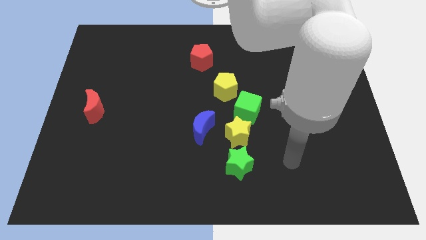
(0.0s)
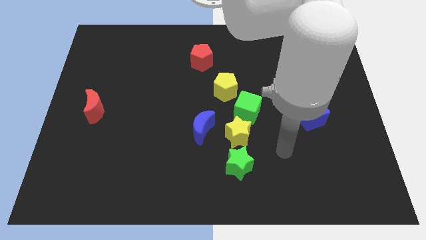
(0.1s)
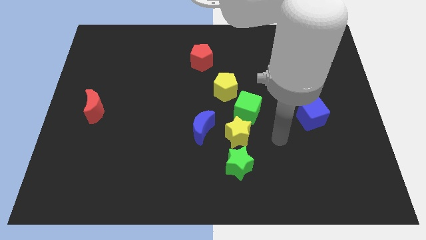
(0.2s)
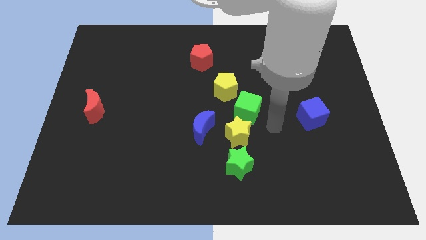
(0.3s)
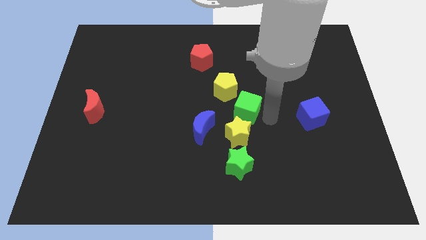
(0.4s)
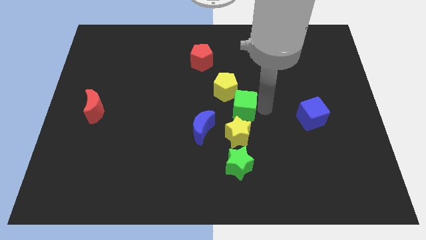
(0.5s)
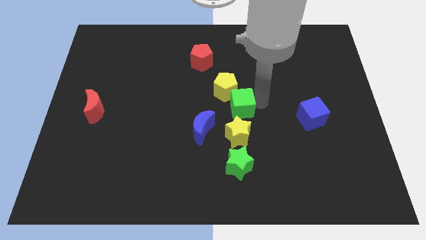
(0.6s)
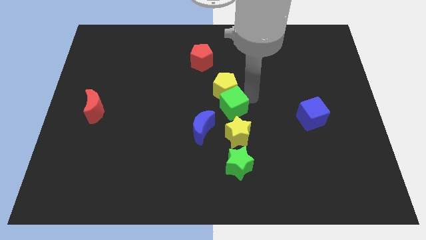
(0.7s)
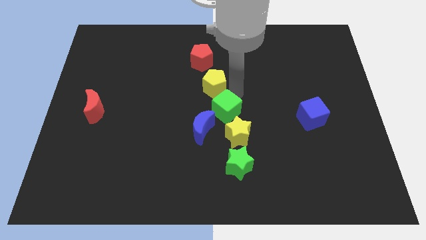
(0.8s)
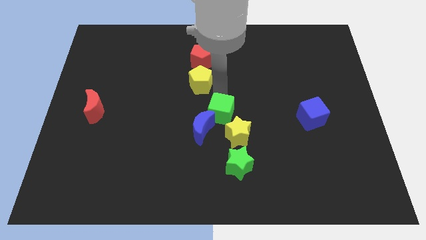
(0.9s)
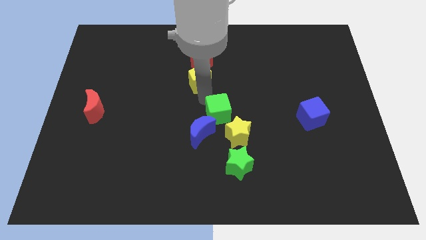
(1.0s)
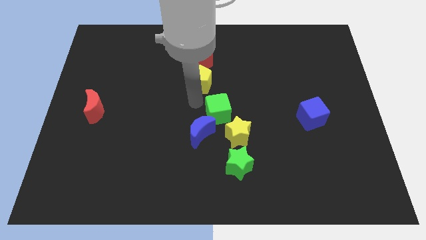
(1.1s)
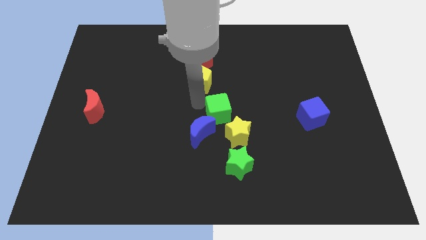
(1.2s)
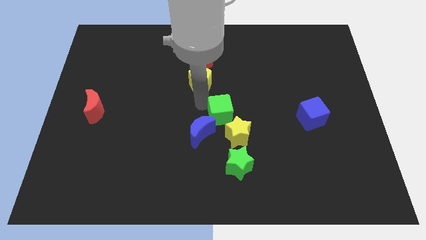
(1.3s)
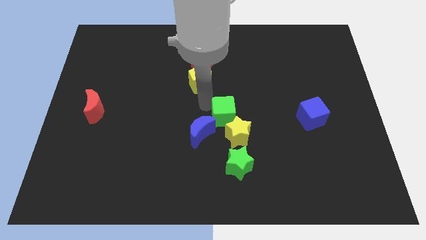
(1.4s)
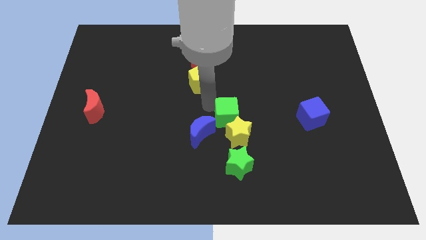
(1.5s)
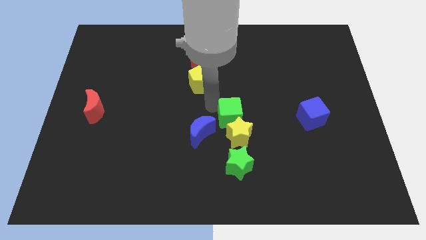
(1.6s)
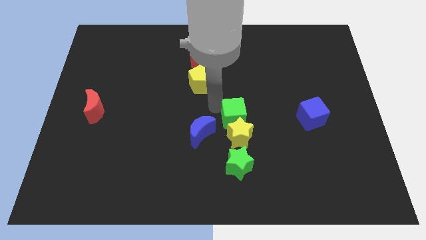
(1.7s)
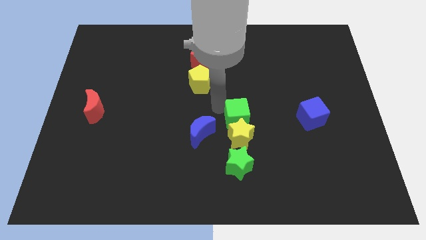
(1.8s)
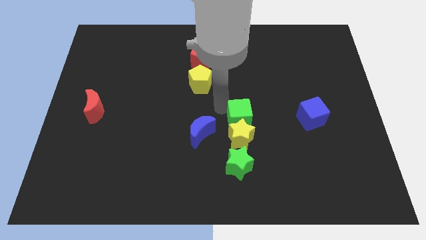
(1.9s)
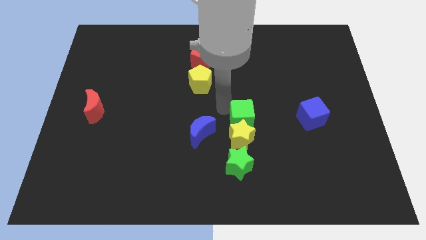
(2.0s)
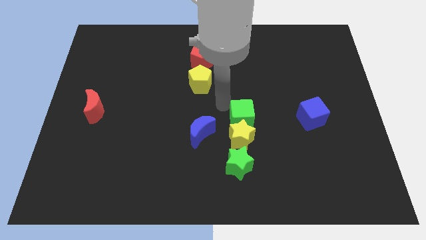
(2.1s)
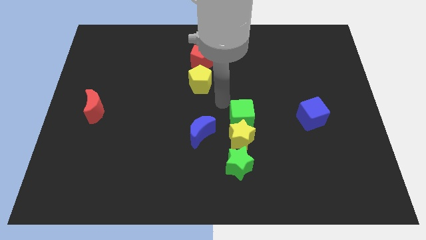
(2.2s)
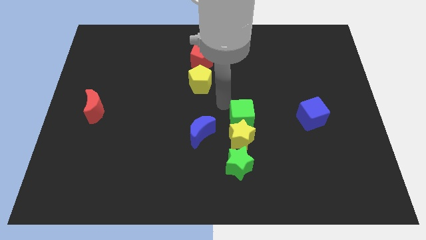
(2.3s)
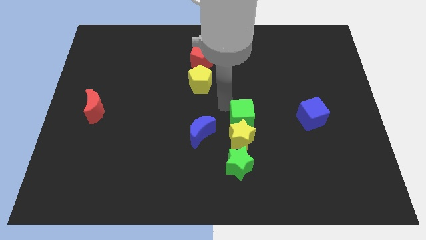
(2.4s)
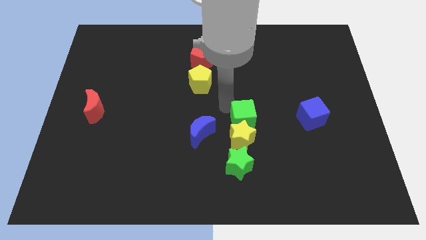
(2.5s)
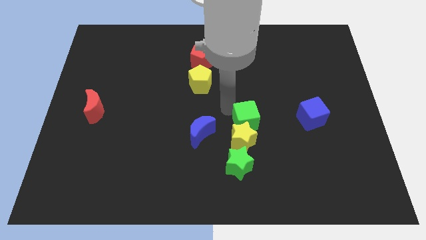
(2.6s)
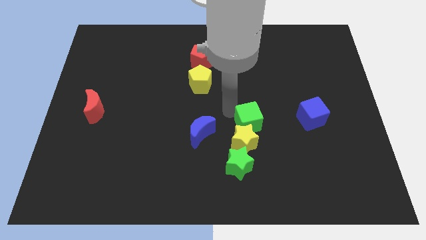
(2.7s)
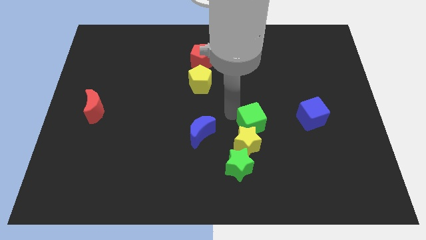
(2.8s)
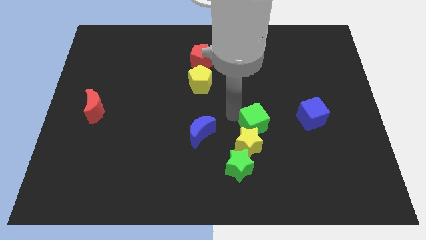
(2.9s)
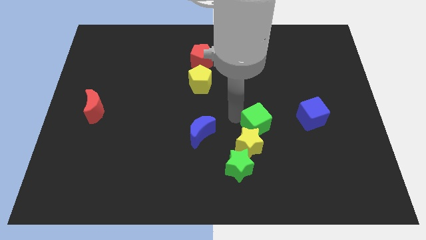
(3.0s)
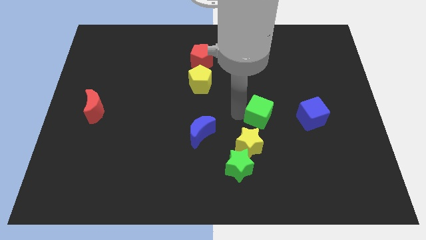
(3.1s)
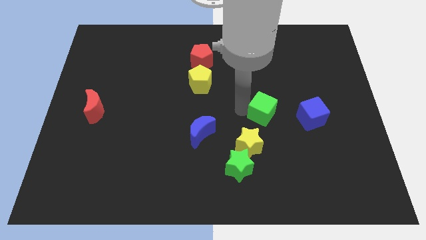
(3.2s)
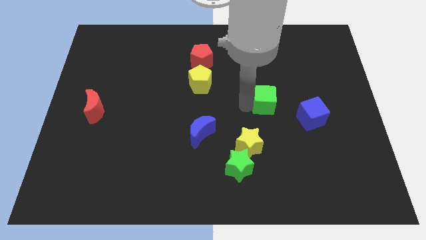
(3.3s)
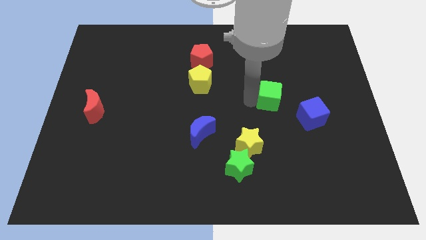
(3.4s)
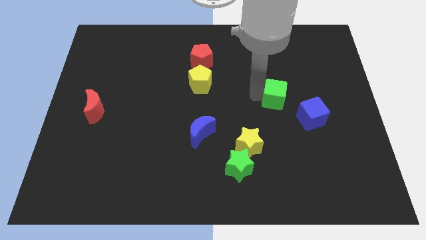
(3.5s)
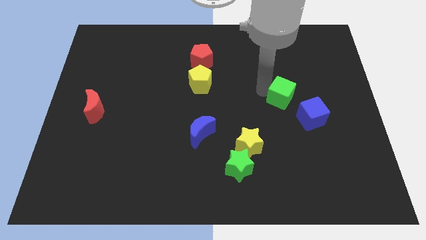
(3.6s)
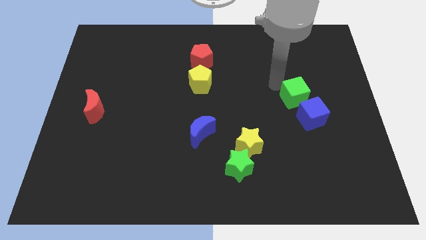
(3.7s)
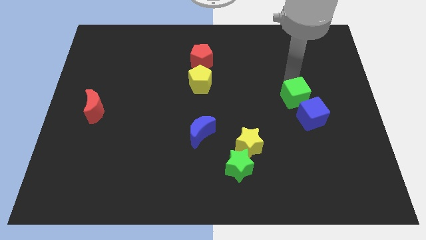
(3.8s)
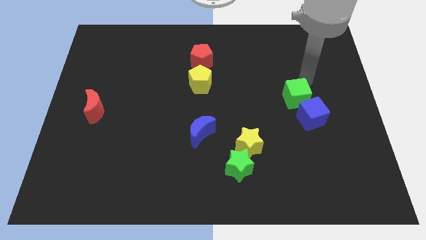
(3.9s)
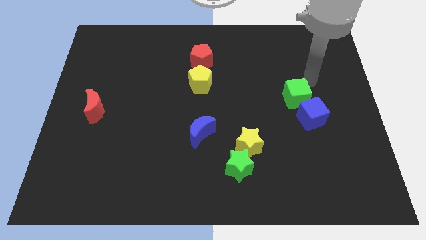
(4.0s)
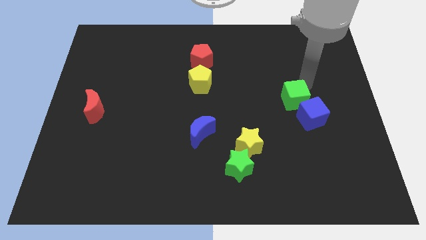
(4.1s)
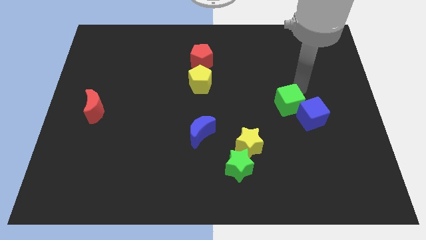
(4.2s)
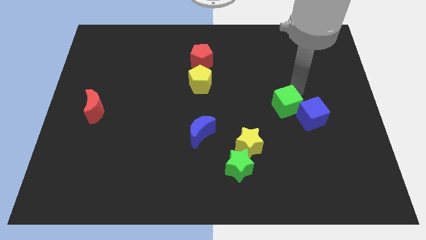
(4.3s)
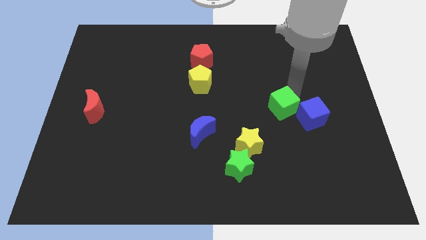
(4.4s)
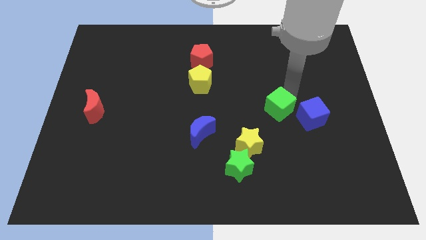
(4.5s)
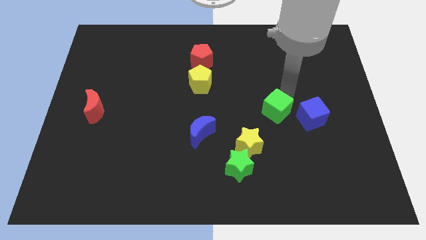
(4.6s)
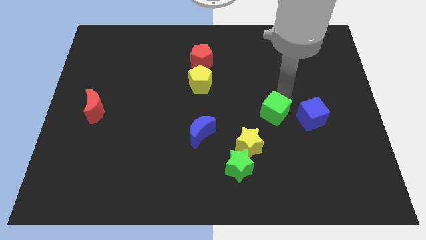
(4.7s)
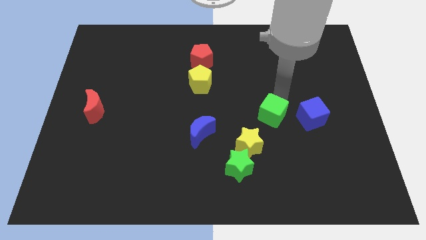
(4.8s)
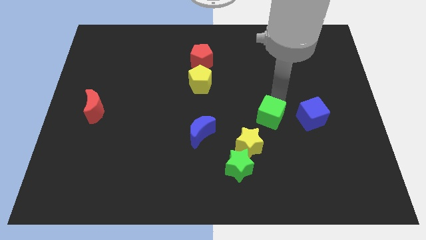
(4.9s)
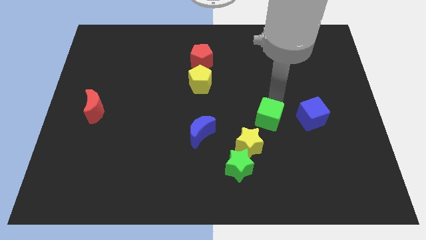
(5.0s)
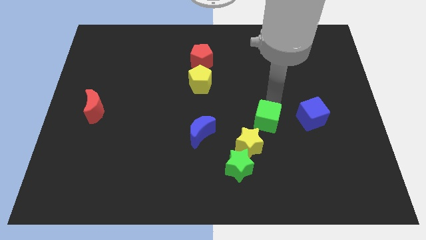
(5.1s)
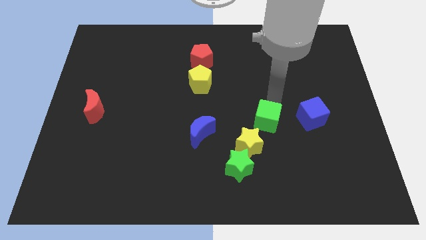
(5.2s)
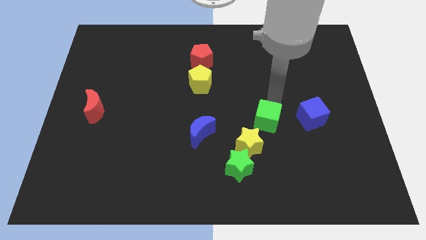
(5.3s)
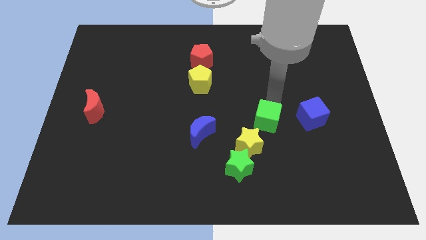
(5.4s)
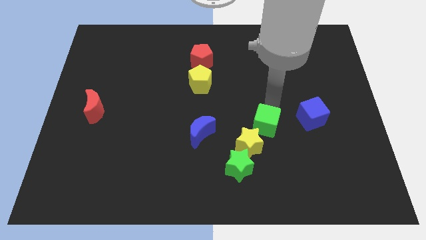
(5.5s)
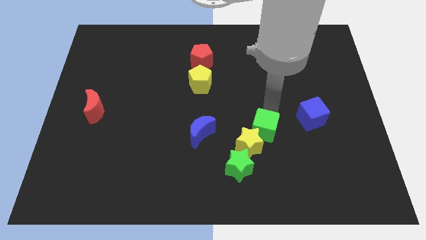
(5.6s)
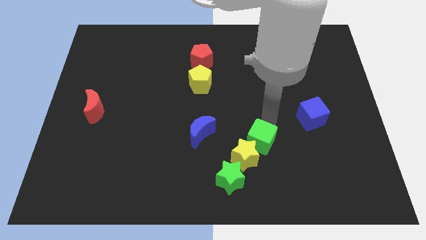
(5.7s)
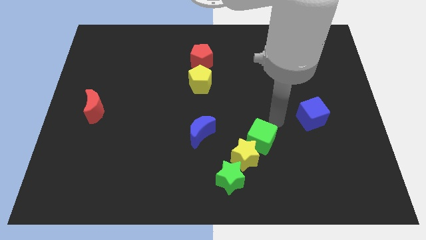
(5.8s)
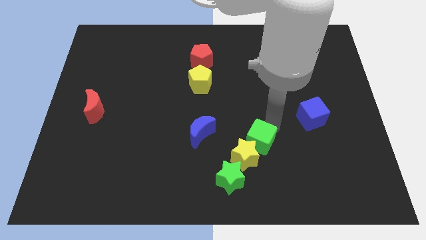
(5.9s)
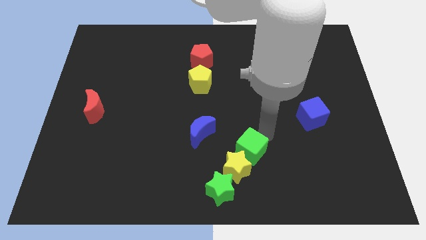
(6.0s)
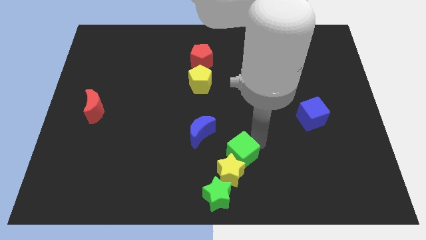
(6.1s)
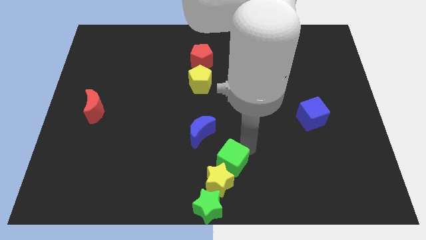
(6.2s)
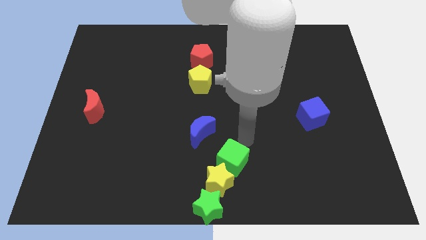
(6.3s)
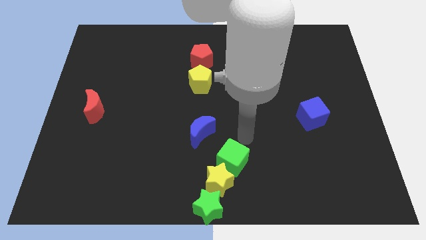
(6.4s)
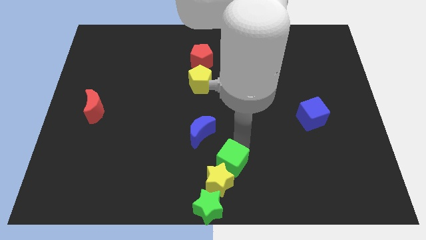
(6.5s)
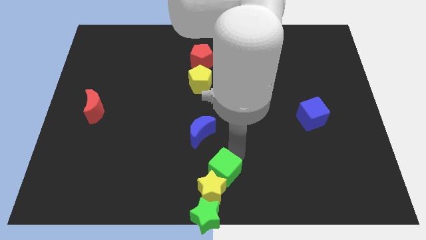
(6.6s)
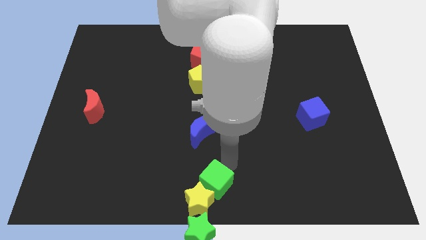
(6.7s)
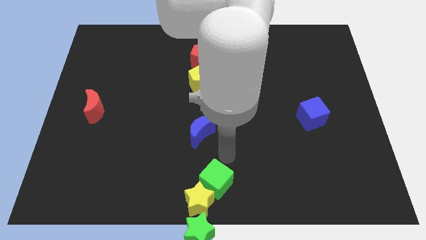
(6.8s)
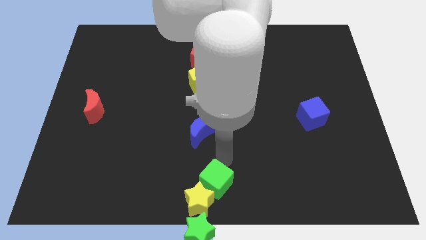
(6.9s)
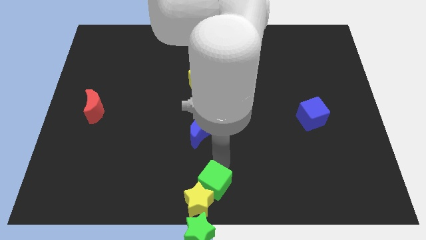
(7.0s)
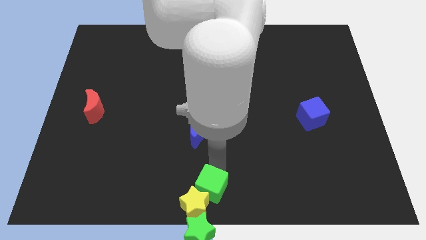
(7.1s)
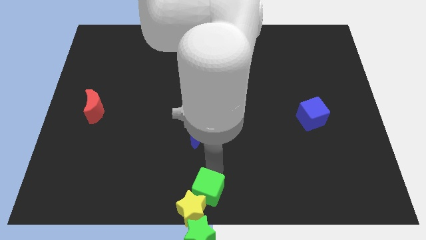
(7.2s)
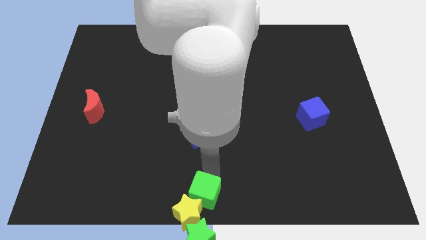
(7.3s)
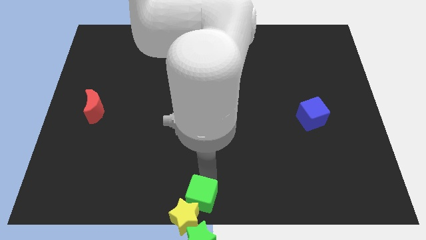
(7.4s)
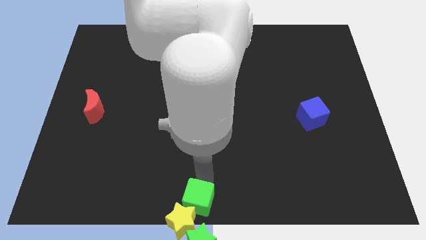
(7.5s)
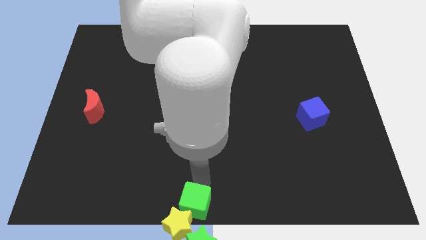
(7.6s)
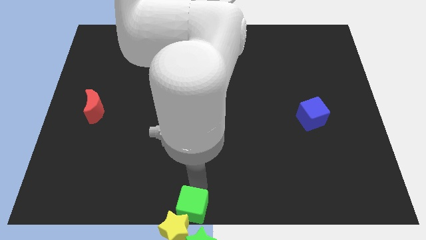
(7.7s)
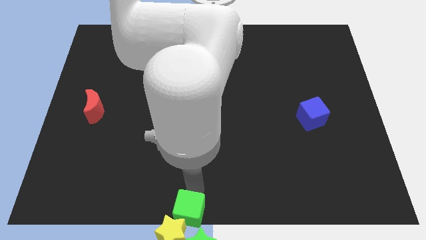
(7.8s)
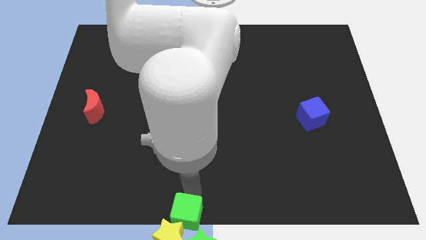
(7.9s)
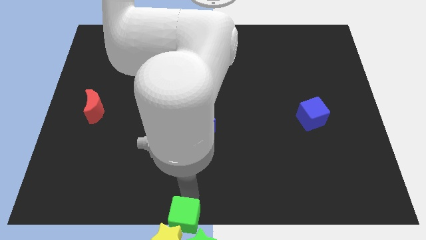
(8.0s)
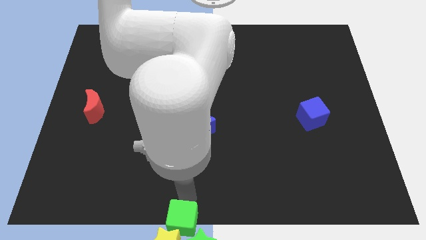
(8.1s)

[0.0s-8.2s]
slide the green cube towards the green star
